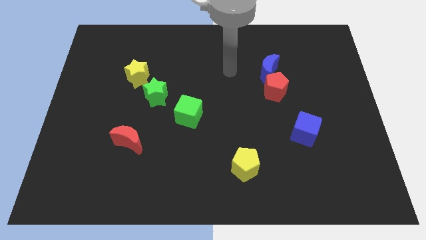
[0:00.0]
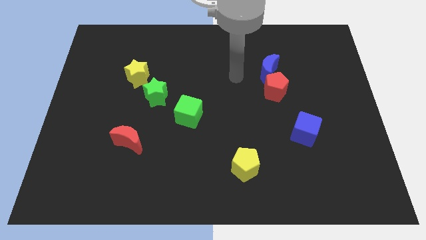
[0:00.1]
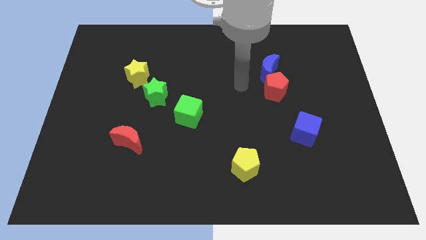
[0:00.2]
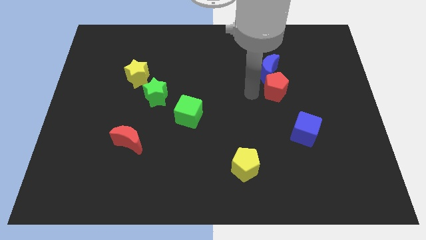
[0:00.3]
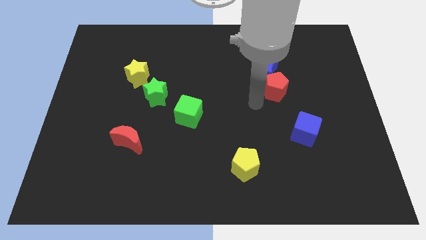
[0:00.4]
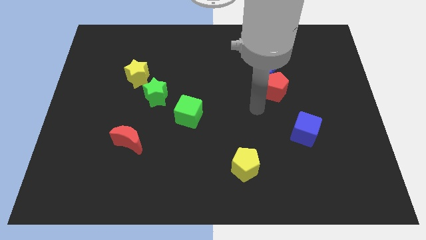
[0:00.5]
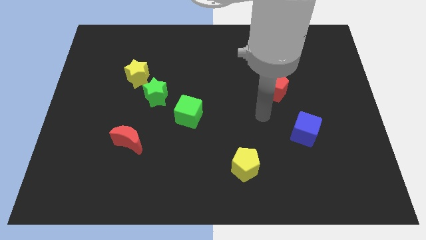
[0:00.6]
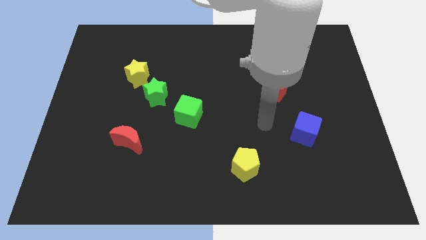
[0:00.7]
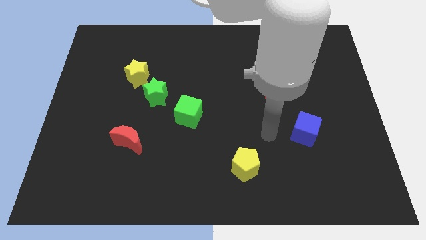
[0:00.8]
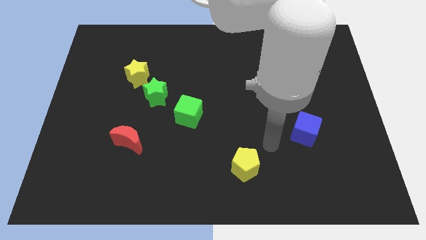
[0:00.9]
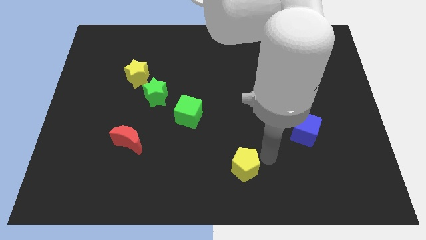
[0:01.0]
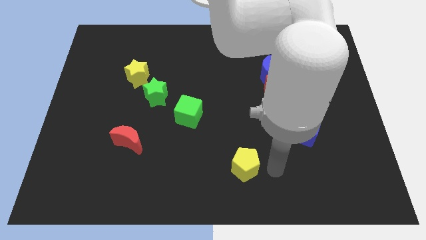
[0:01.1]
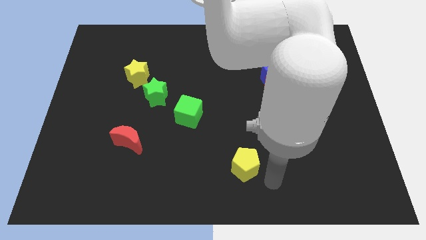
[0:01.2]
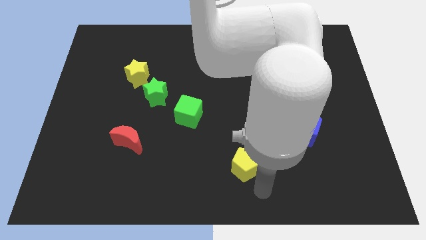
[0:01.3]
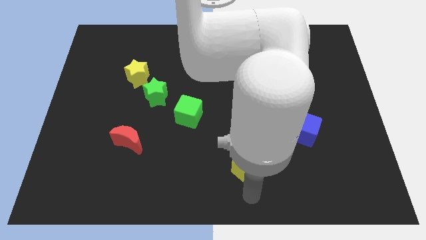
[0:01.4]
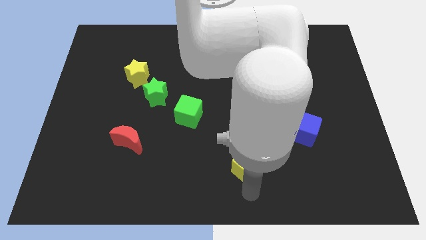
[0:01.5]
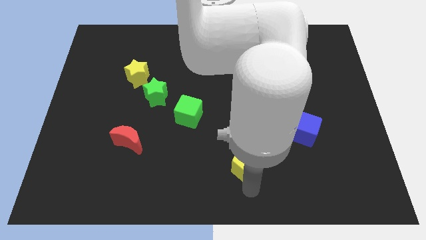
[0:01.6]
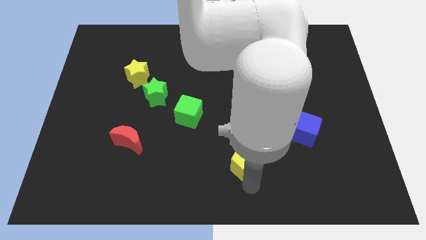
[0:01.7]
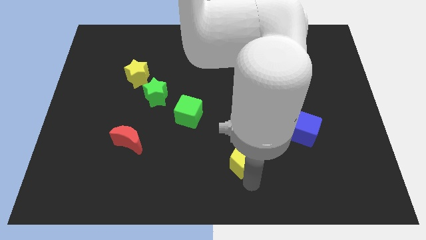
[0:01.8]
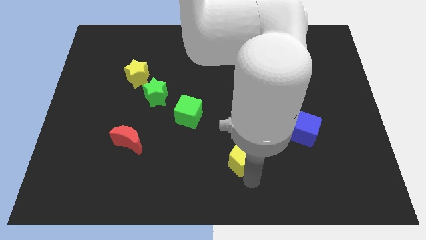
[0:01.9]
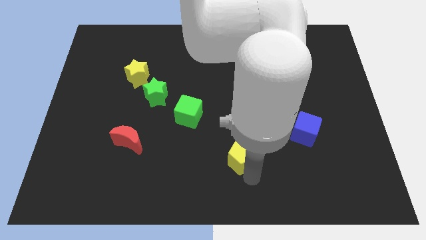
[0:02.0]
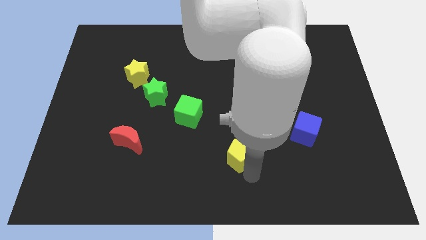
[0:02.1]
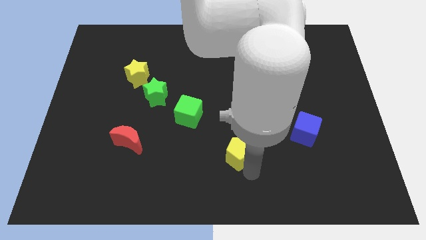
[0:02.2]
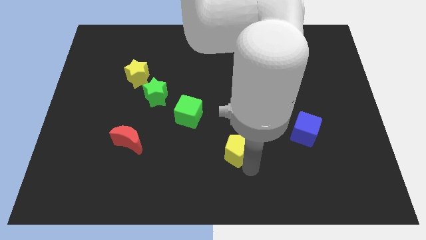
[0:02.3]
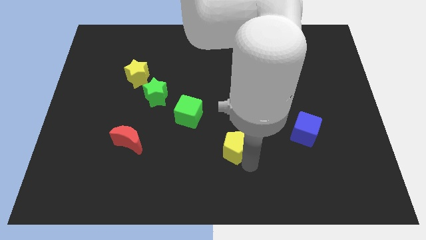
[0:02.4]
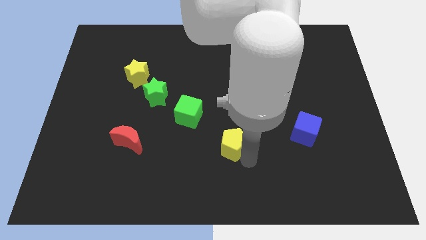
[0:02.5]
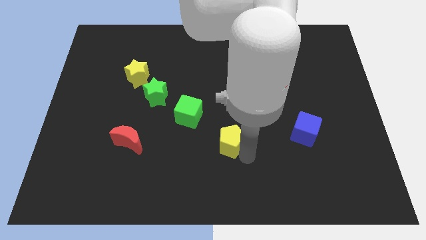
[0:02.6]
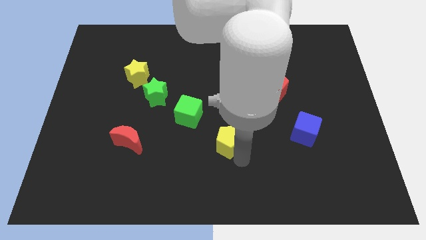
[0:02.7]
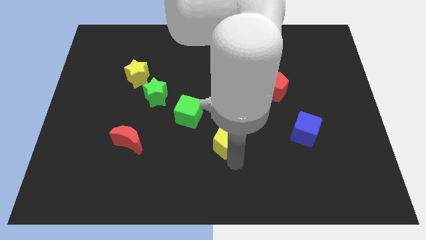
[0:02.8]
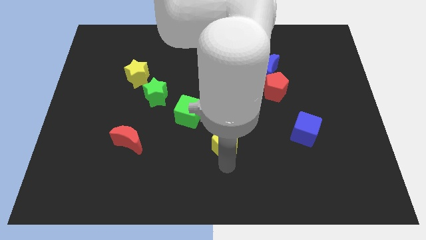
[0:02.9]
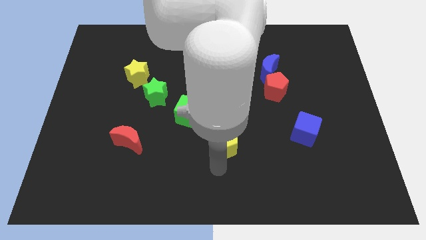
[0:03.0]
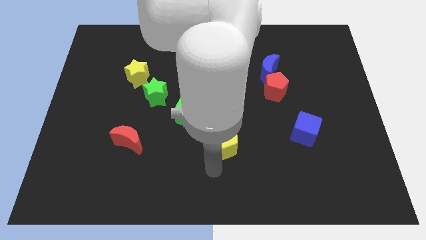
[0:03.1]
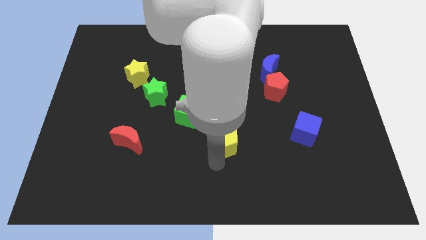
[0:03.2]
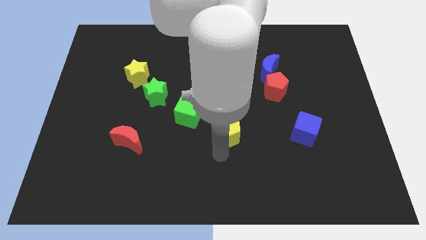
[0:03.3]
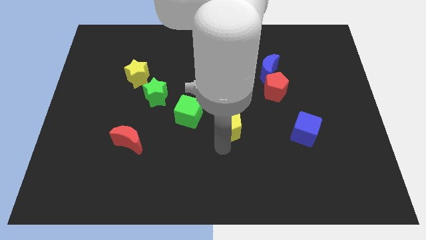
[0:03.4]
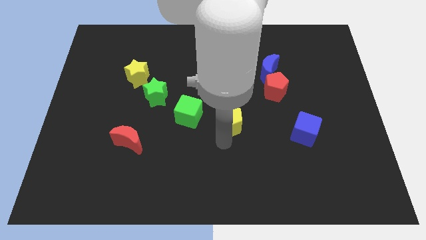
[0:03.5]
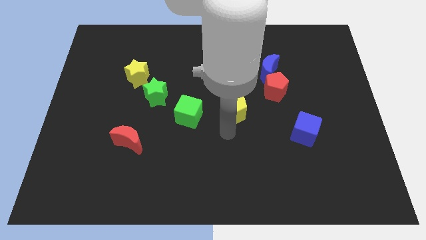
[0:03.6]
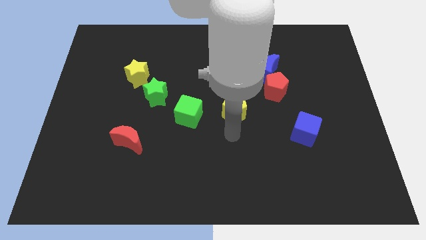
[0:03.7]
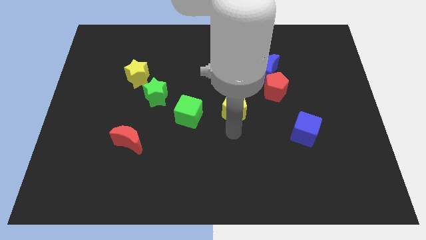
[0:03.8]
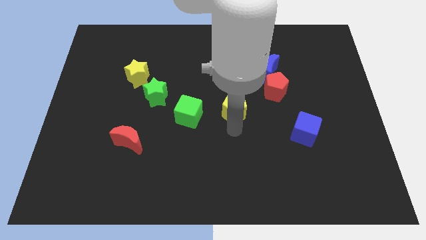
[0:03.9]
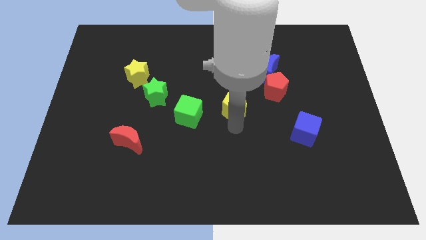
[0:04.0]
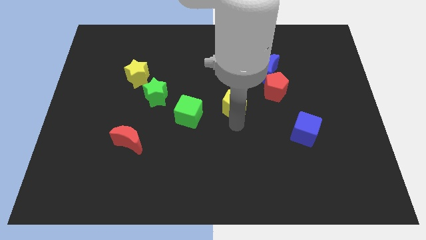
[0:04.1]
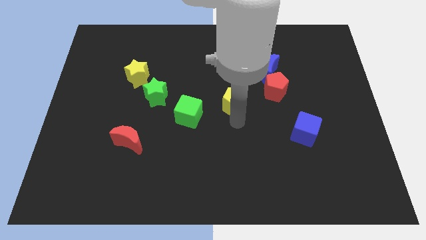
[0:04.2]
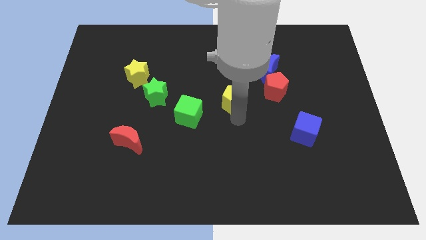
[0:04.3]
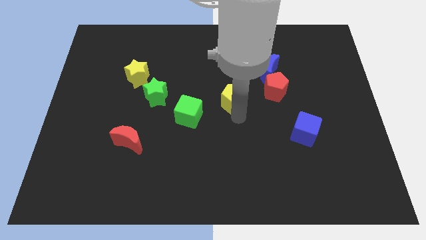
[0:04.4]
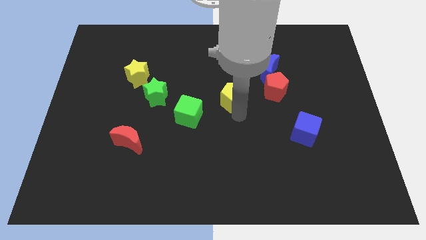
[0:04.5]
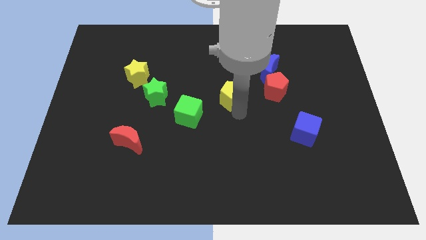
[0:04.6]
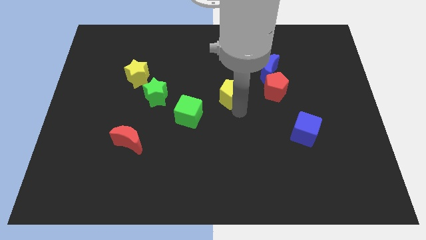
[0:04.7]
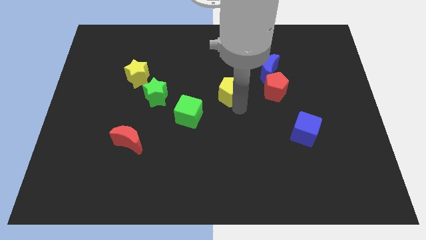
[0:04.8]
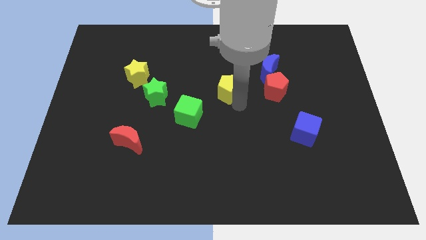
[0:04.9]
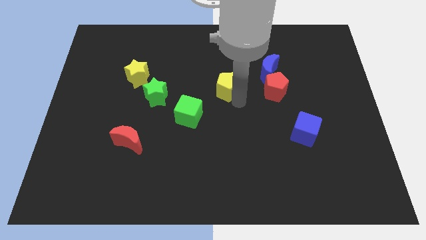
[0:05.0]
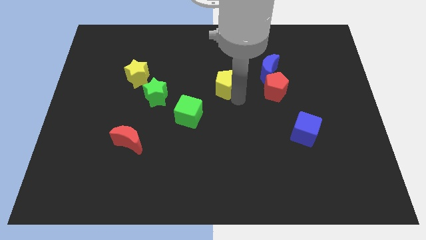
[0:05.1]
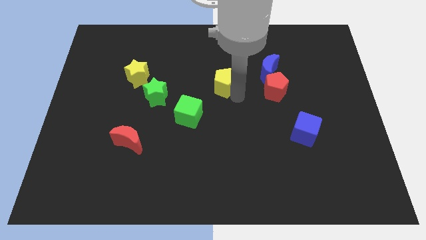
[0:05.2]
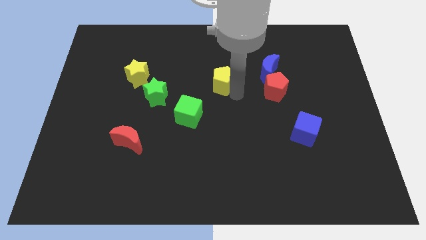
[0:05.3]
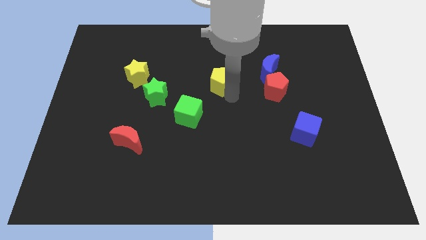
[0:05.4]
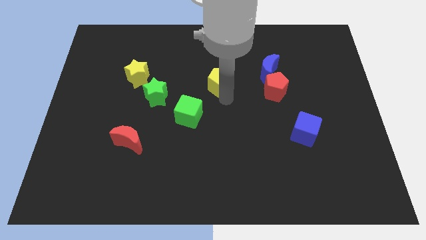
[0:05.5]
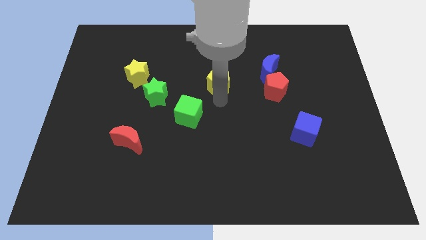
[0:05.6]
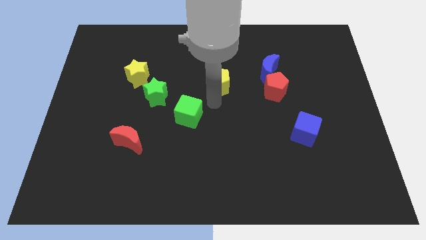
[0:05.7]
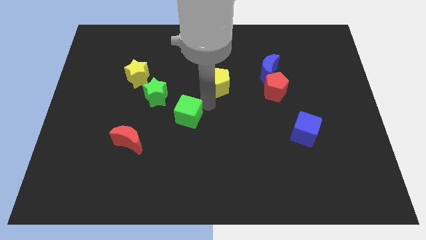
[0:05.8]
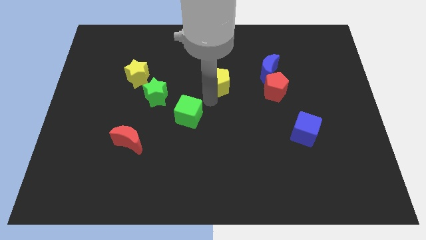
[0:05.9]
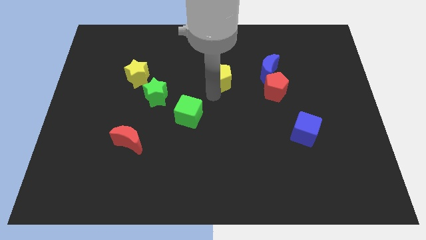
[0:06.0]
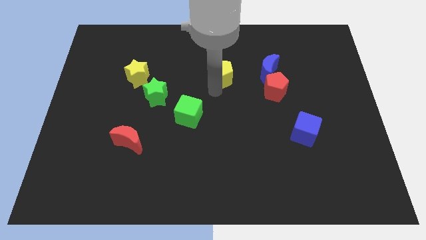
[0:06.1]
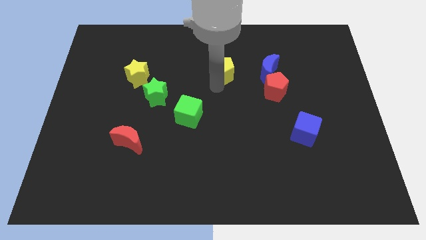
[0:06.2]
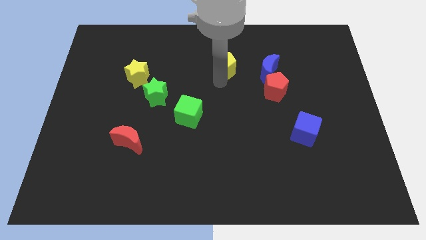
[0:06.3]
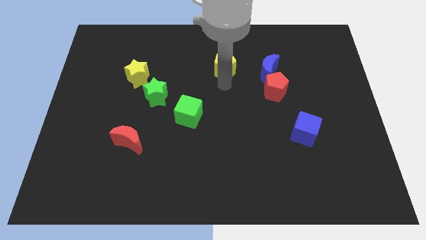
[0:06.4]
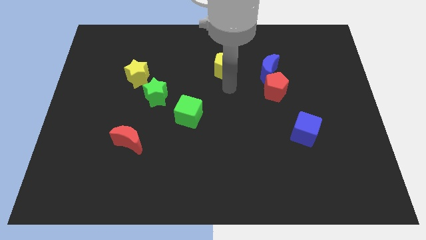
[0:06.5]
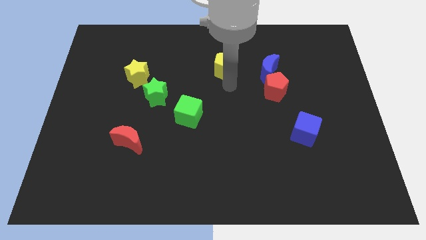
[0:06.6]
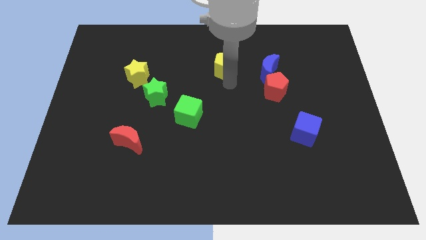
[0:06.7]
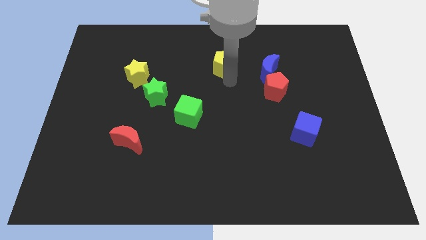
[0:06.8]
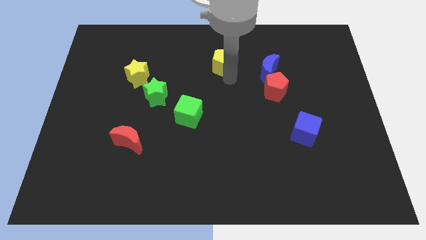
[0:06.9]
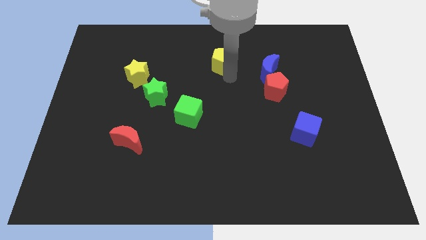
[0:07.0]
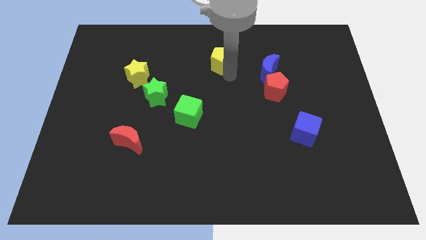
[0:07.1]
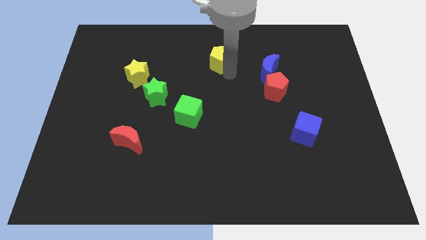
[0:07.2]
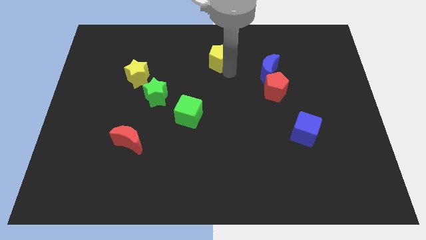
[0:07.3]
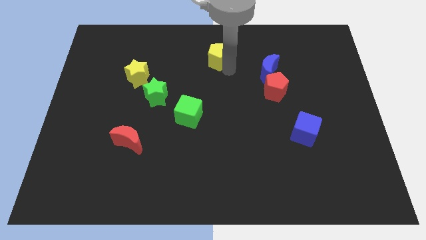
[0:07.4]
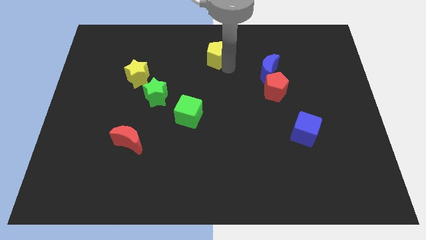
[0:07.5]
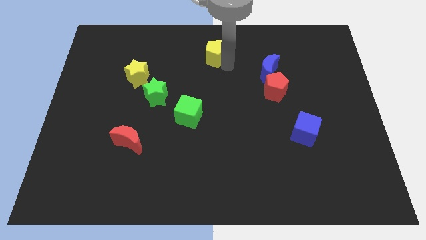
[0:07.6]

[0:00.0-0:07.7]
push the yellow pentagon to the top side
